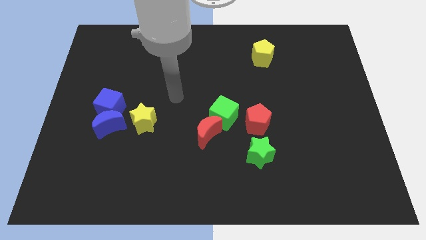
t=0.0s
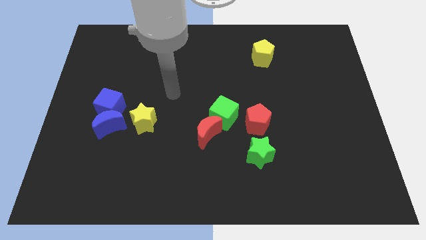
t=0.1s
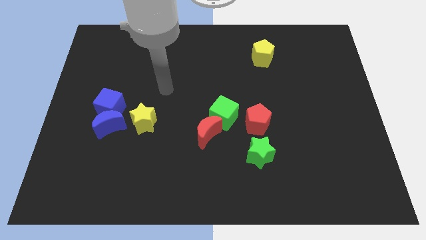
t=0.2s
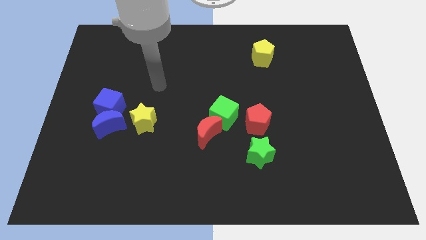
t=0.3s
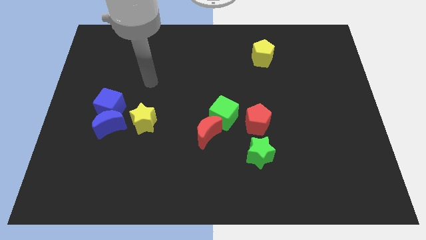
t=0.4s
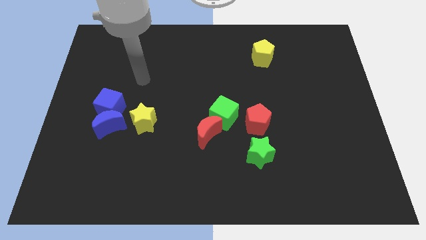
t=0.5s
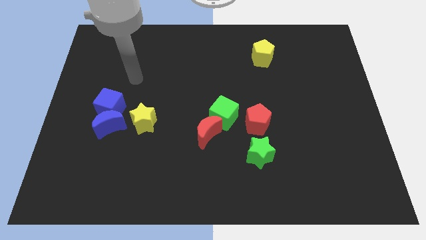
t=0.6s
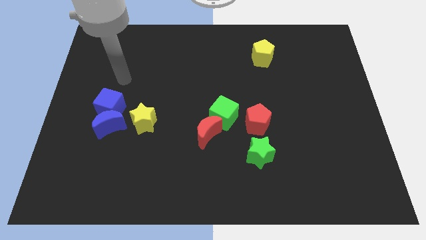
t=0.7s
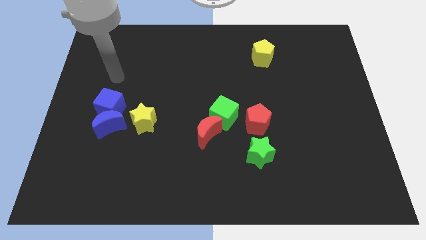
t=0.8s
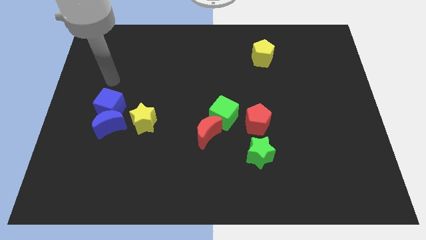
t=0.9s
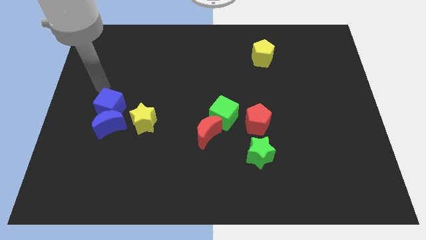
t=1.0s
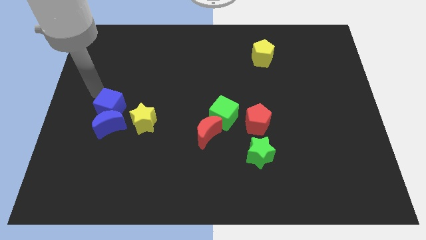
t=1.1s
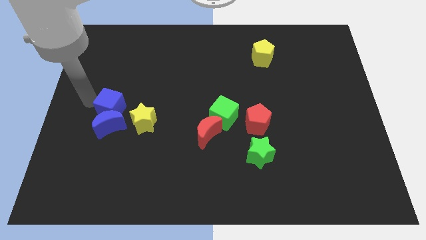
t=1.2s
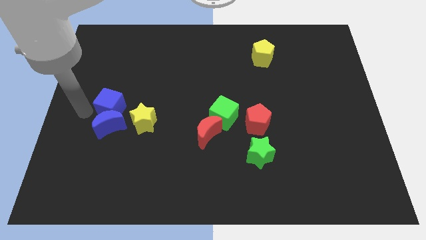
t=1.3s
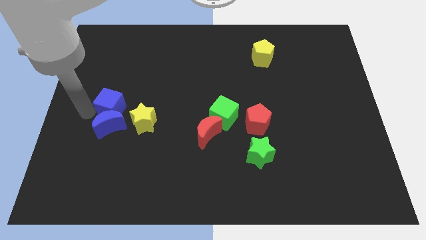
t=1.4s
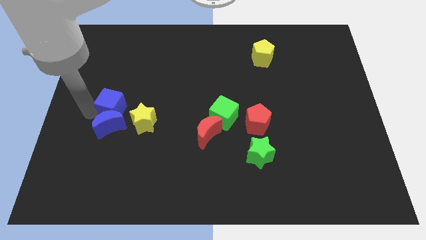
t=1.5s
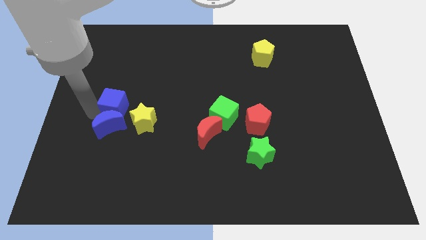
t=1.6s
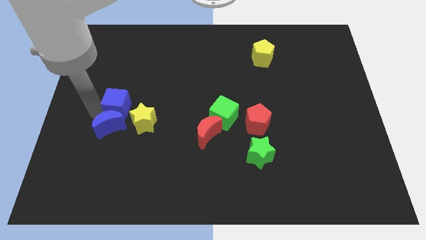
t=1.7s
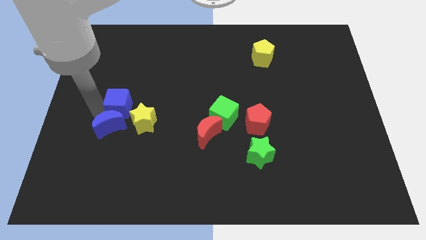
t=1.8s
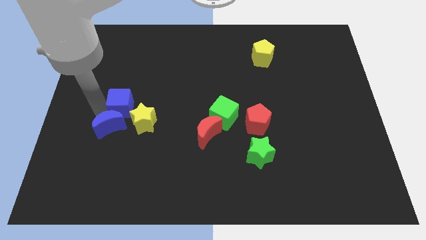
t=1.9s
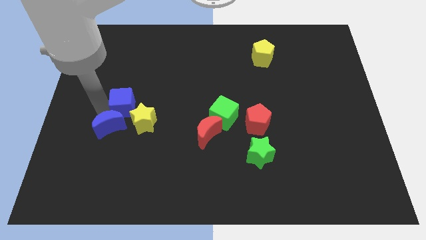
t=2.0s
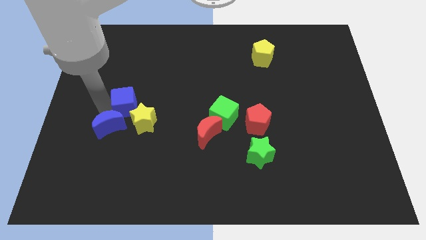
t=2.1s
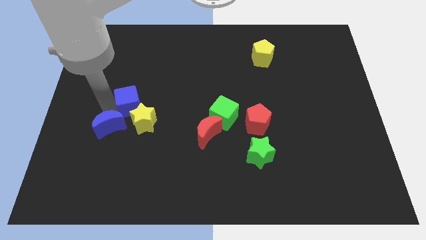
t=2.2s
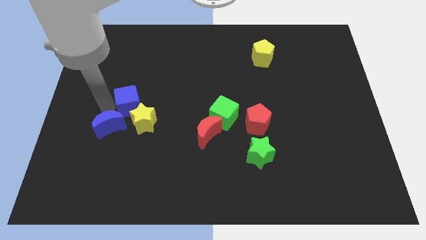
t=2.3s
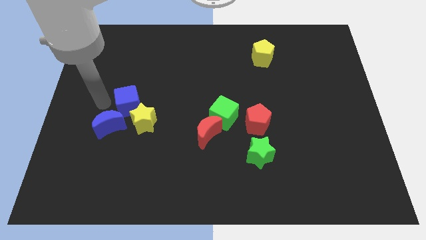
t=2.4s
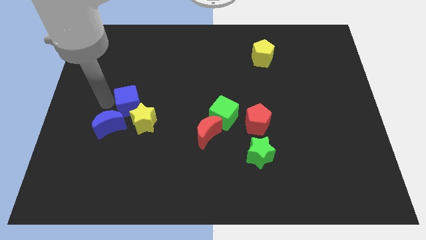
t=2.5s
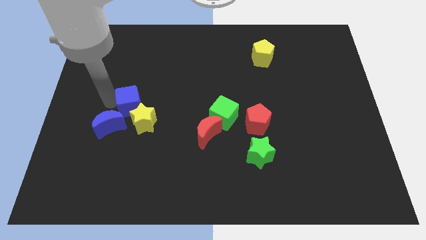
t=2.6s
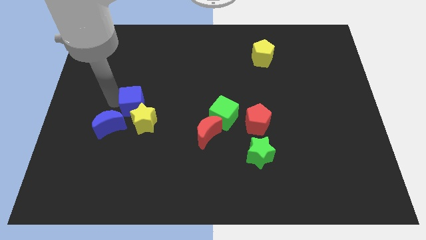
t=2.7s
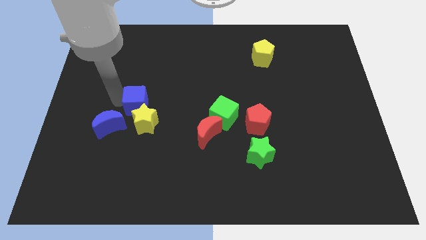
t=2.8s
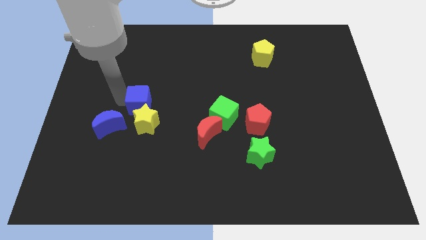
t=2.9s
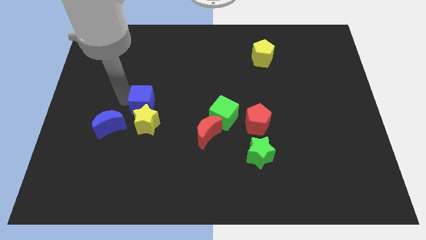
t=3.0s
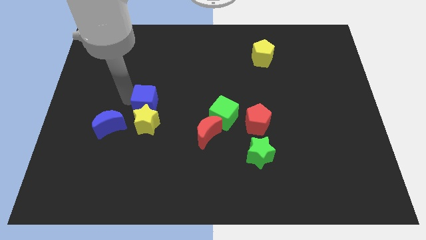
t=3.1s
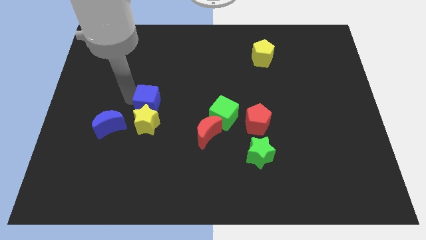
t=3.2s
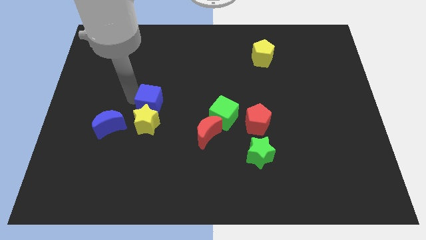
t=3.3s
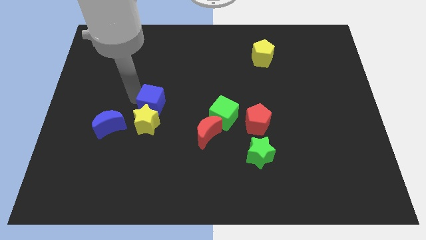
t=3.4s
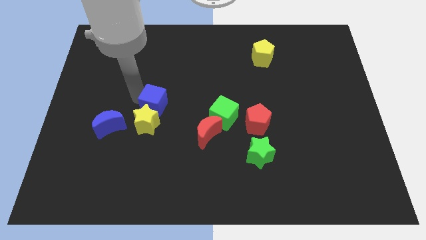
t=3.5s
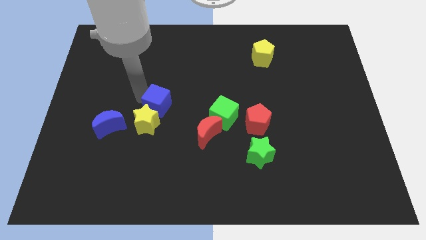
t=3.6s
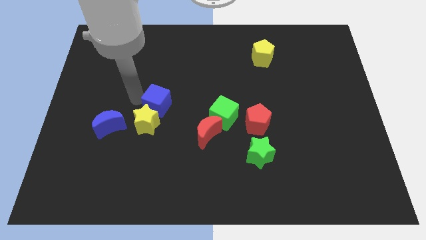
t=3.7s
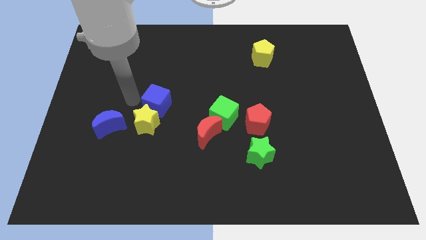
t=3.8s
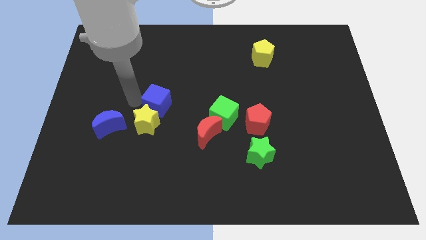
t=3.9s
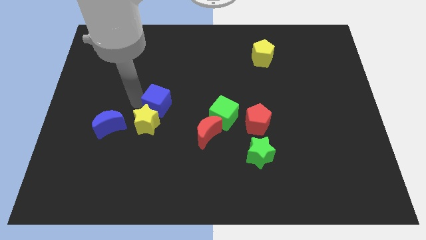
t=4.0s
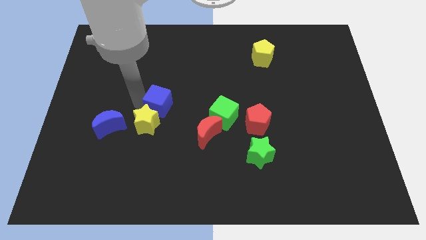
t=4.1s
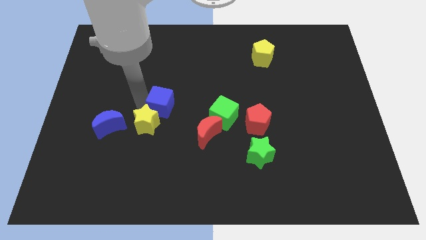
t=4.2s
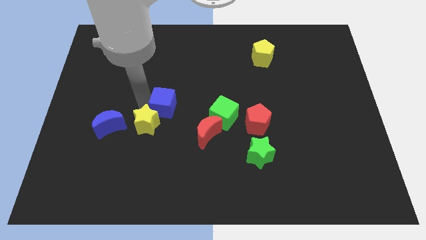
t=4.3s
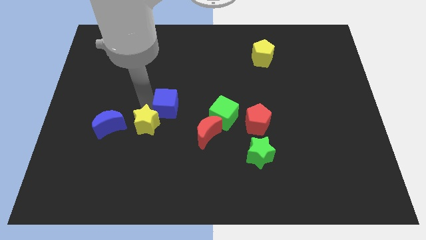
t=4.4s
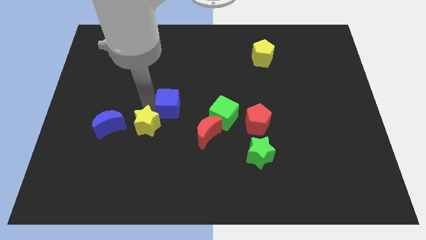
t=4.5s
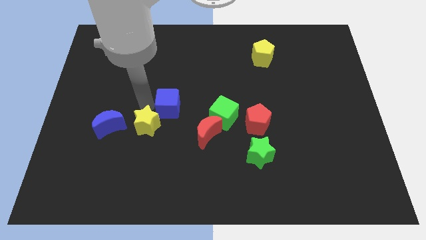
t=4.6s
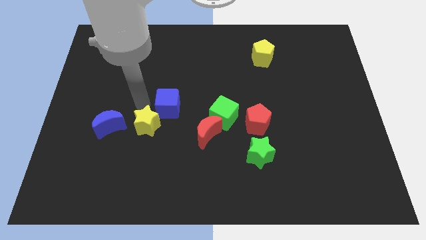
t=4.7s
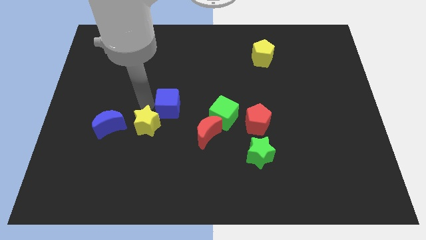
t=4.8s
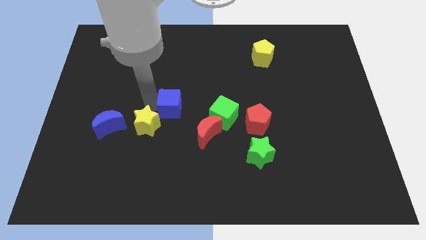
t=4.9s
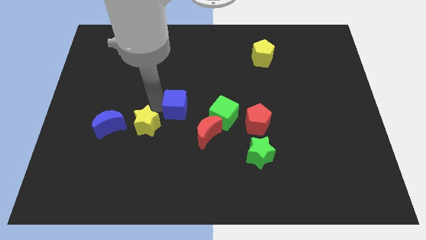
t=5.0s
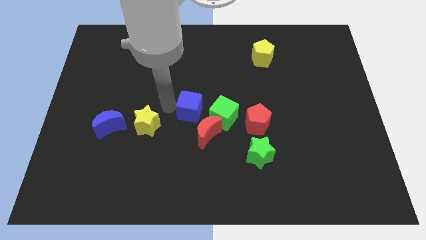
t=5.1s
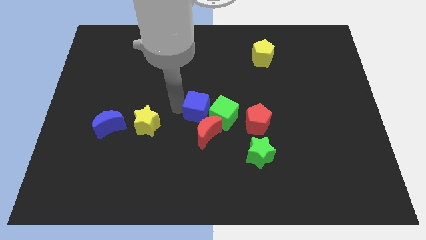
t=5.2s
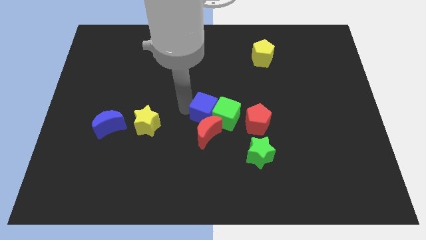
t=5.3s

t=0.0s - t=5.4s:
put the blue cube next to the green cube

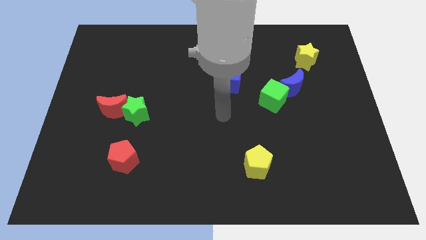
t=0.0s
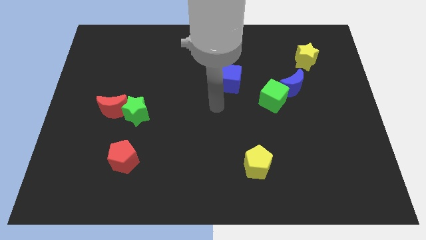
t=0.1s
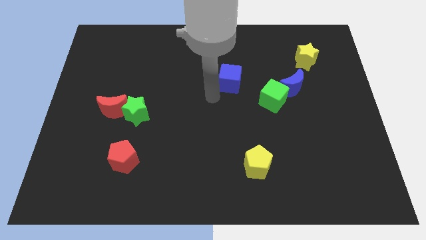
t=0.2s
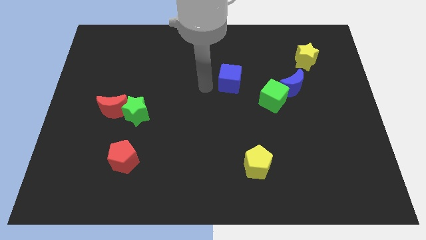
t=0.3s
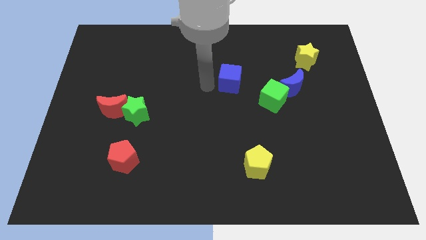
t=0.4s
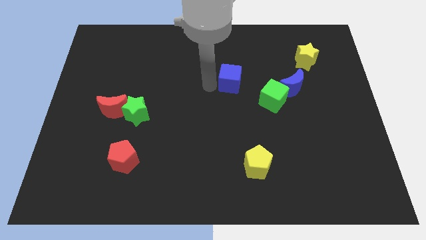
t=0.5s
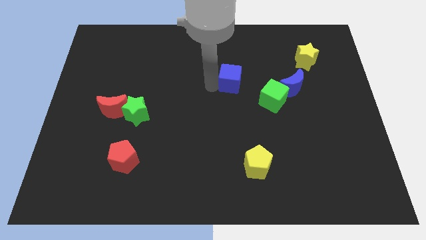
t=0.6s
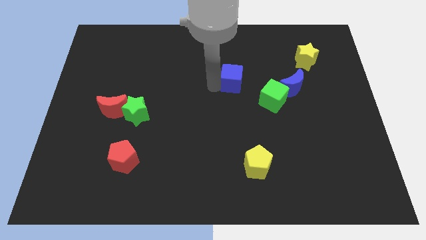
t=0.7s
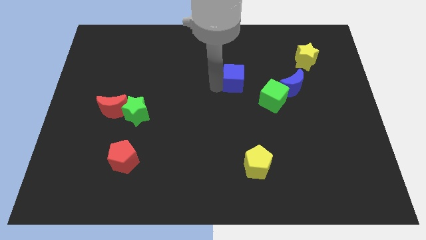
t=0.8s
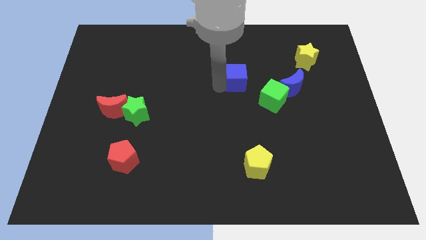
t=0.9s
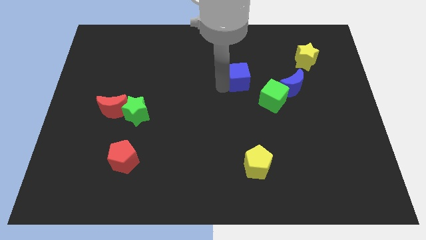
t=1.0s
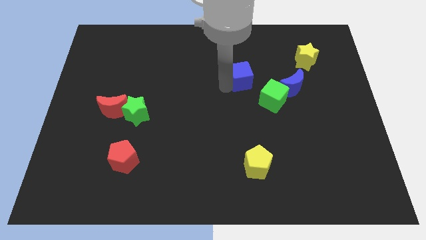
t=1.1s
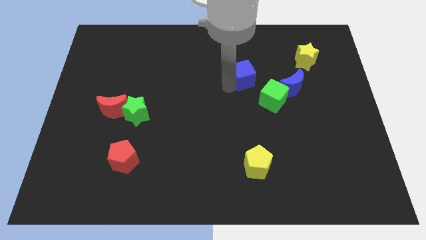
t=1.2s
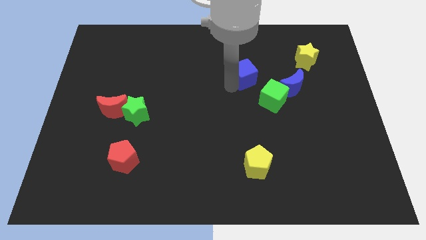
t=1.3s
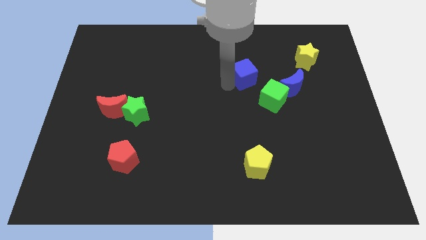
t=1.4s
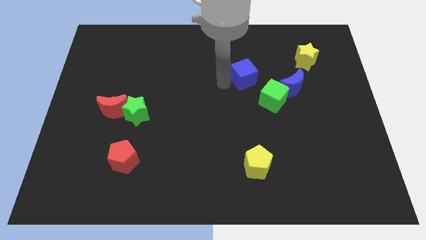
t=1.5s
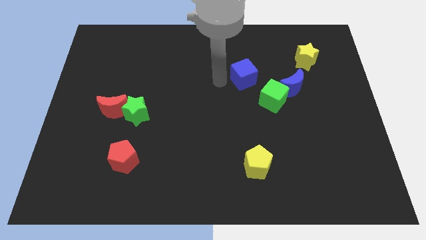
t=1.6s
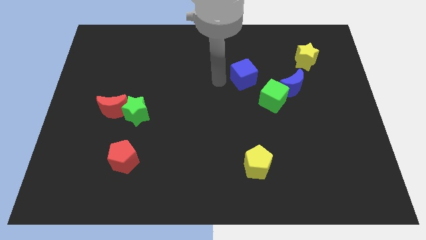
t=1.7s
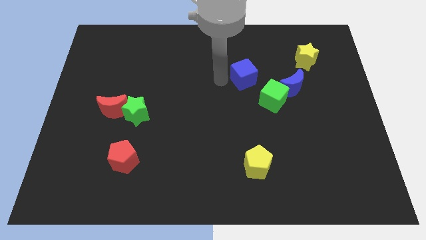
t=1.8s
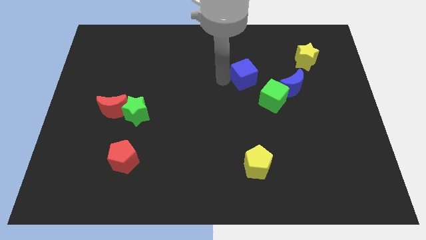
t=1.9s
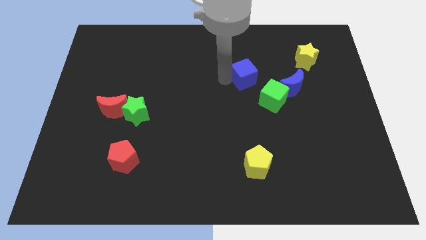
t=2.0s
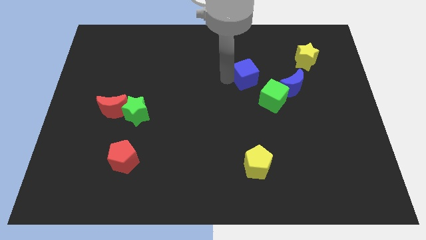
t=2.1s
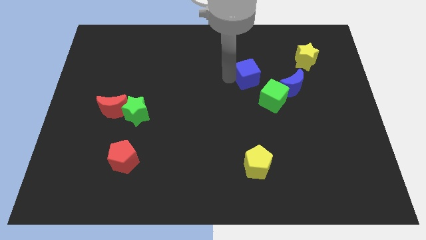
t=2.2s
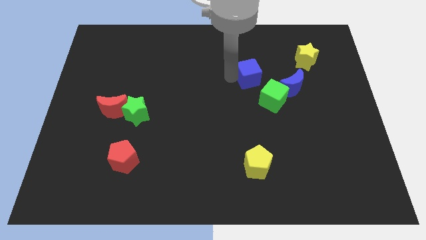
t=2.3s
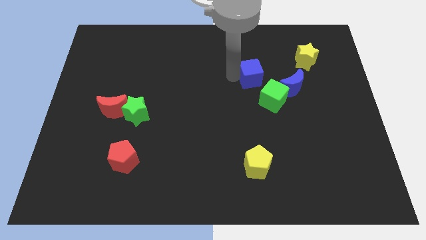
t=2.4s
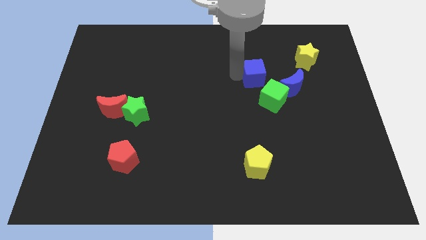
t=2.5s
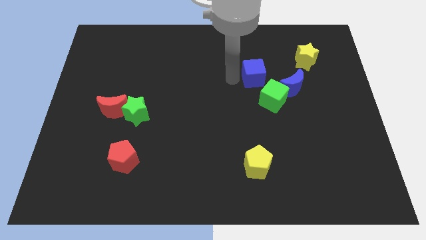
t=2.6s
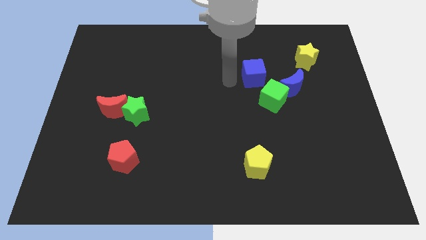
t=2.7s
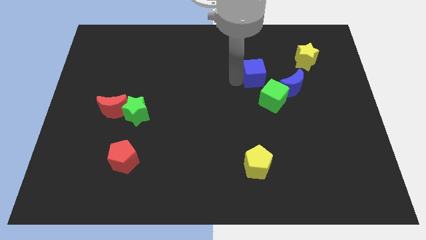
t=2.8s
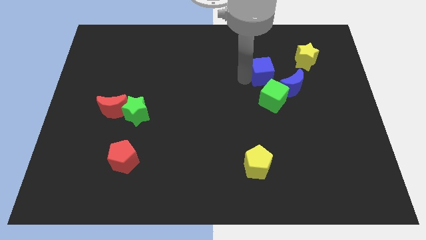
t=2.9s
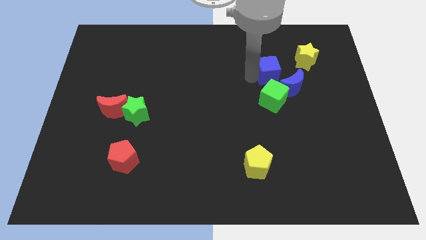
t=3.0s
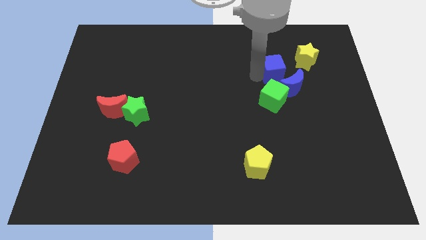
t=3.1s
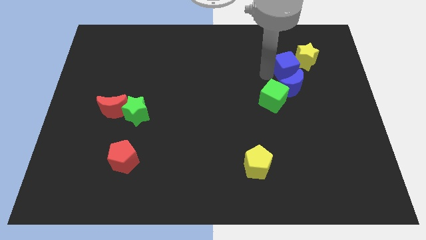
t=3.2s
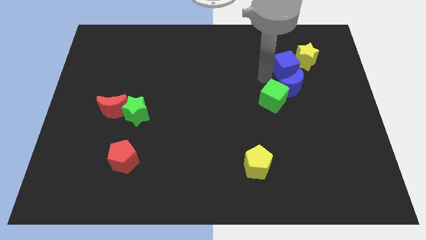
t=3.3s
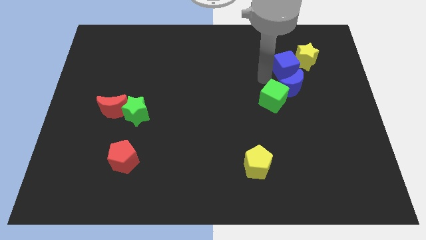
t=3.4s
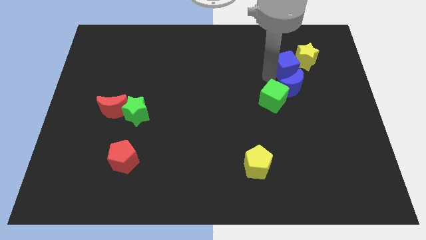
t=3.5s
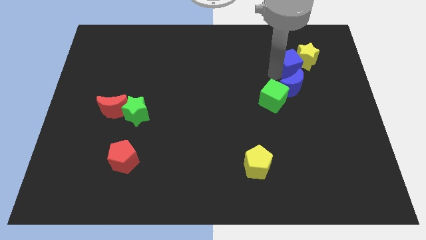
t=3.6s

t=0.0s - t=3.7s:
slide the blue cube next to the yellow star
